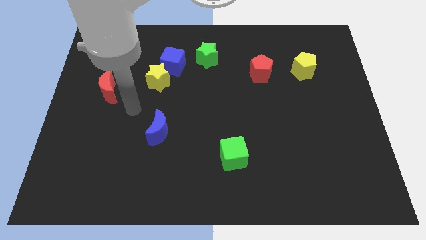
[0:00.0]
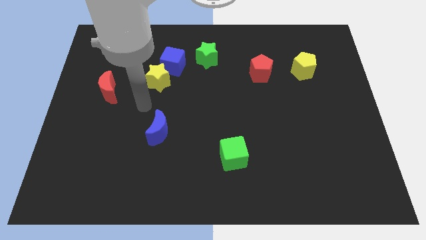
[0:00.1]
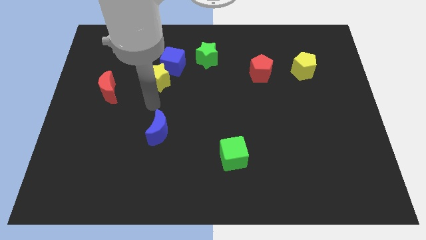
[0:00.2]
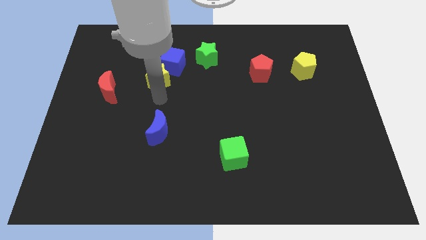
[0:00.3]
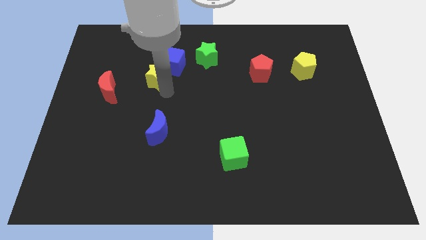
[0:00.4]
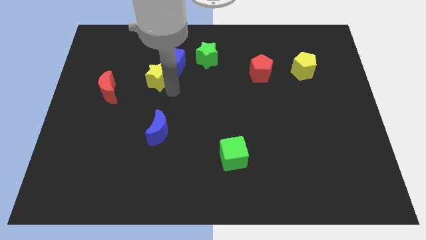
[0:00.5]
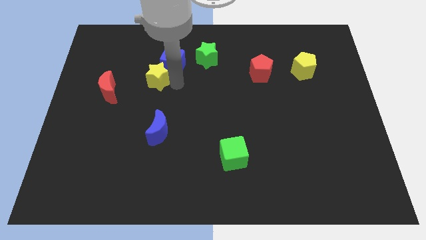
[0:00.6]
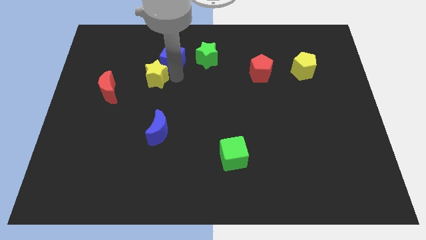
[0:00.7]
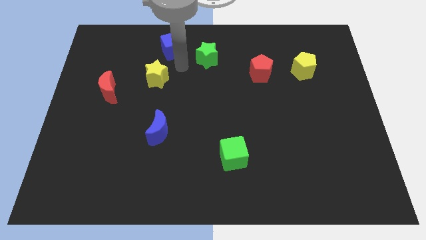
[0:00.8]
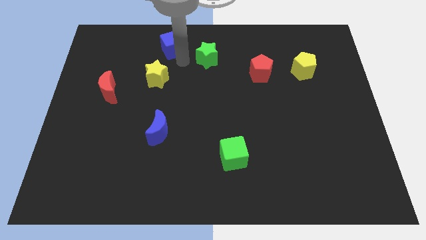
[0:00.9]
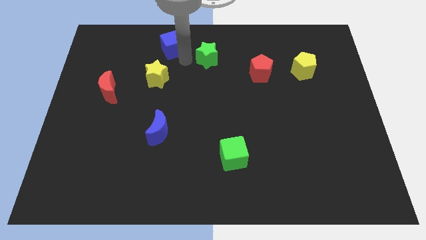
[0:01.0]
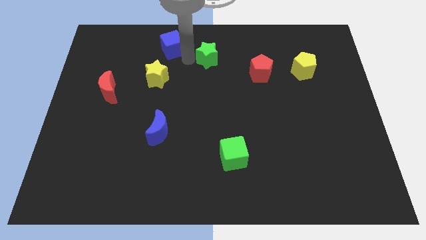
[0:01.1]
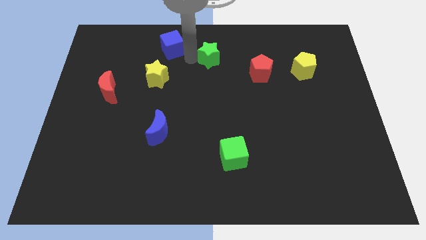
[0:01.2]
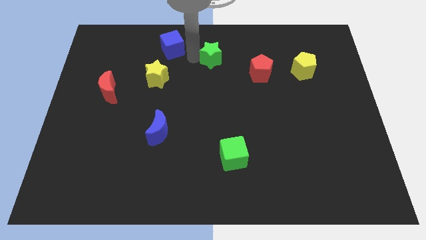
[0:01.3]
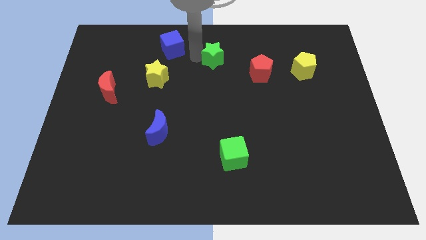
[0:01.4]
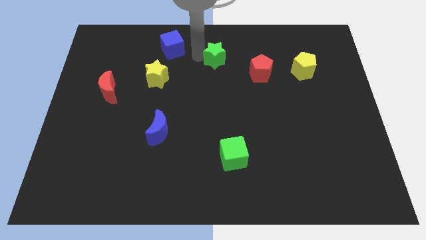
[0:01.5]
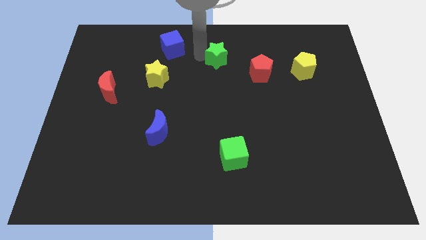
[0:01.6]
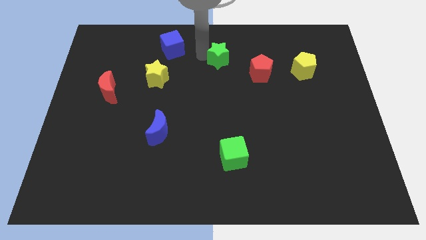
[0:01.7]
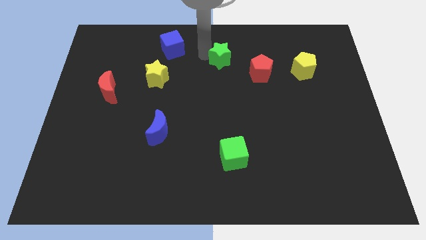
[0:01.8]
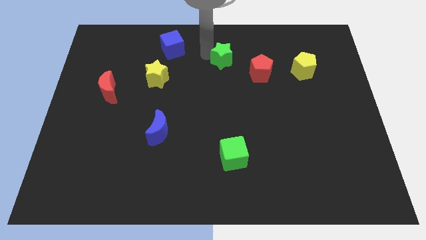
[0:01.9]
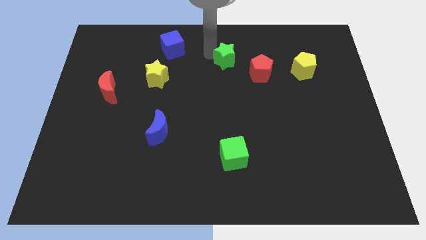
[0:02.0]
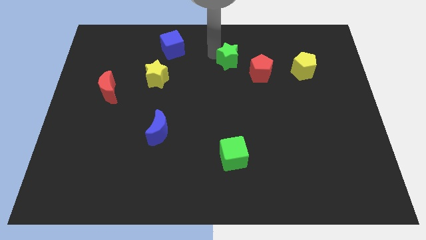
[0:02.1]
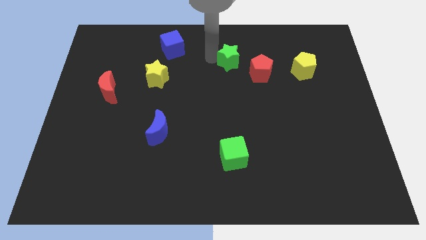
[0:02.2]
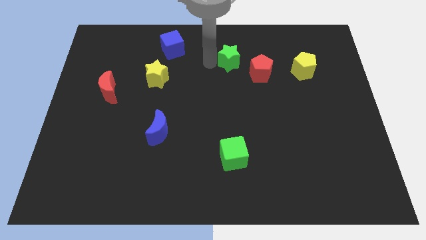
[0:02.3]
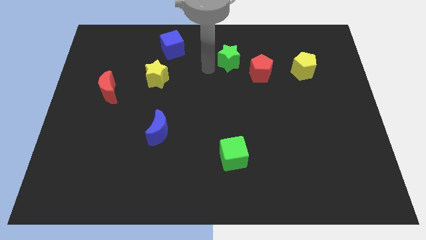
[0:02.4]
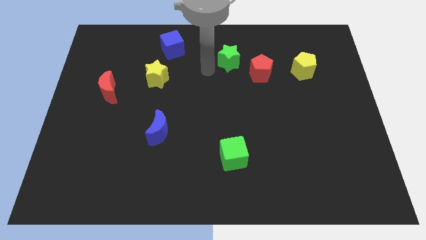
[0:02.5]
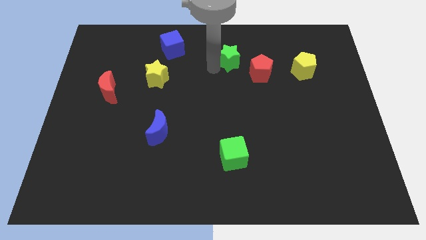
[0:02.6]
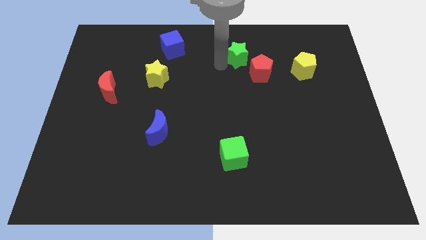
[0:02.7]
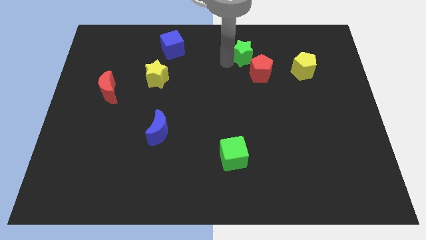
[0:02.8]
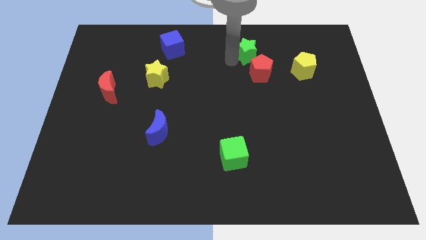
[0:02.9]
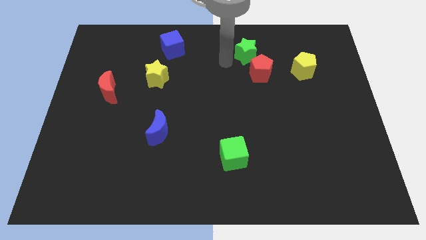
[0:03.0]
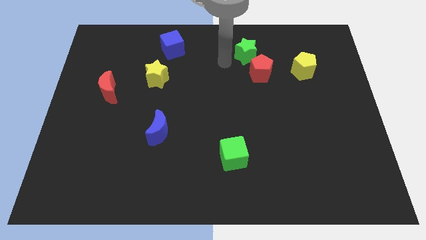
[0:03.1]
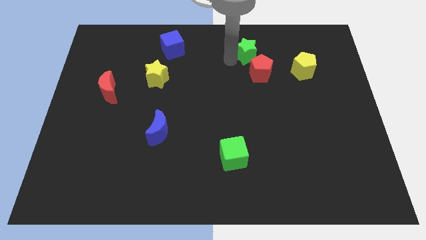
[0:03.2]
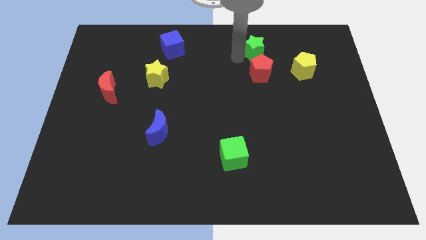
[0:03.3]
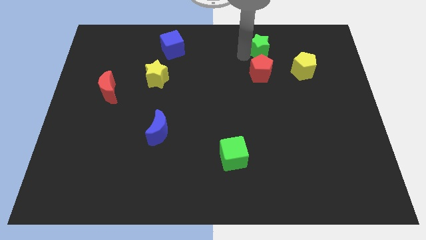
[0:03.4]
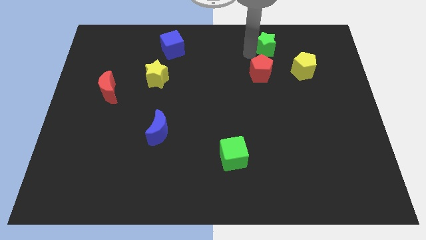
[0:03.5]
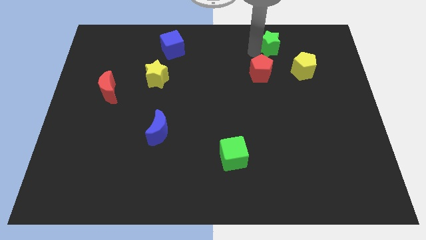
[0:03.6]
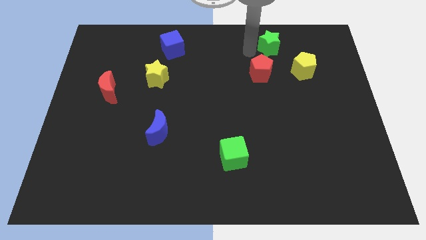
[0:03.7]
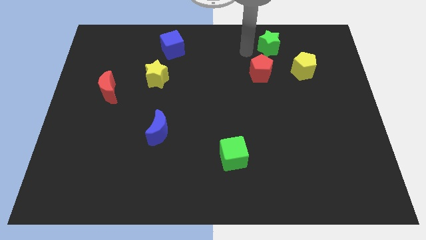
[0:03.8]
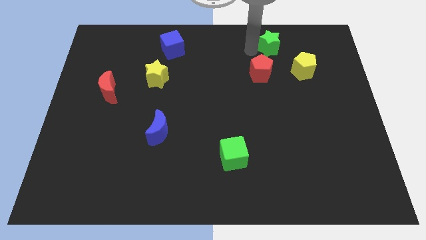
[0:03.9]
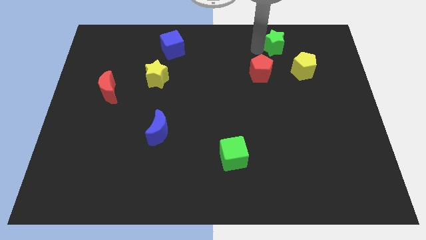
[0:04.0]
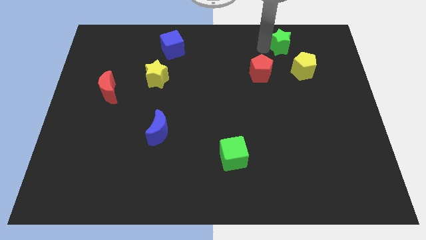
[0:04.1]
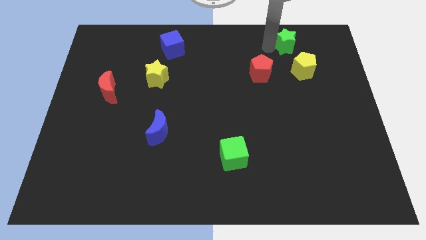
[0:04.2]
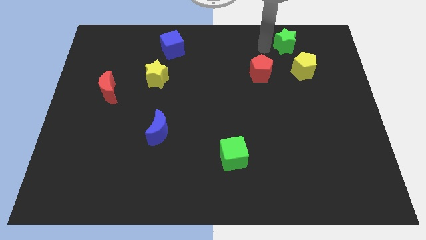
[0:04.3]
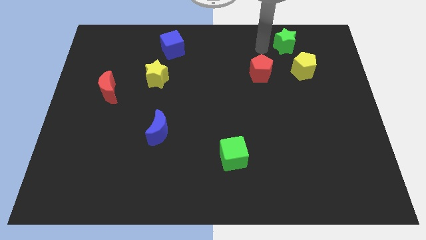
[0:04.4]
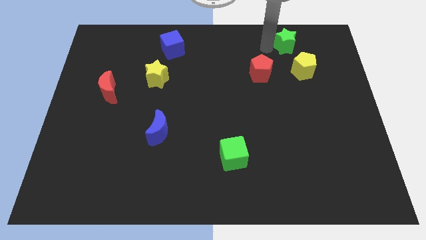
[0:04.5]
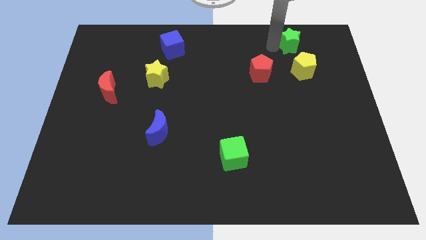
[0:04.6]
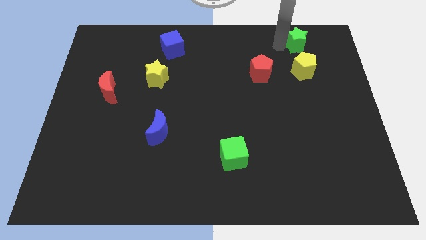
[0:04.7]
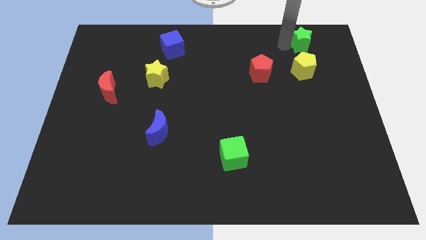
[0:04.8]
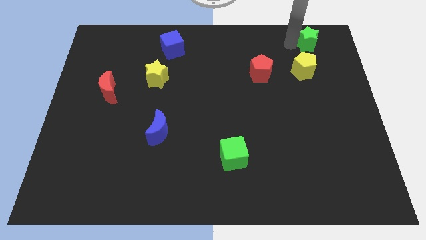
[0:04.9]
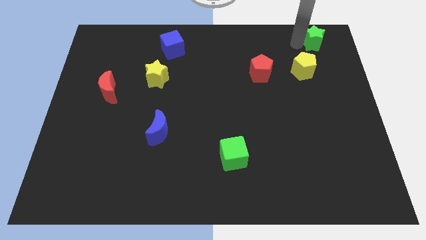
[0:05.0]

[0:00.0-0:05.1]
move the green star to the top right

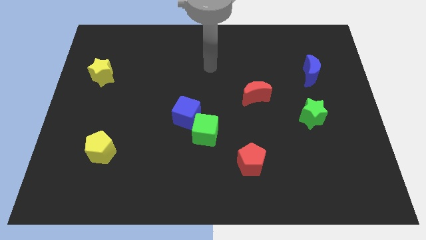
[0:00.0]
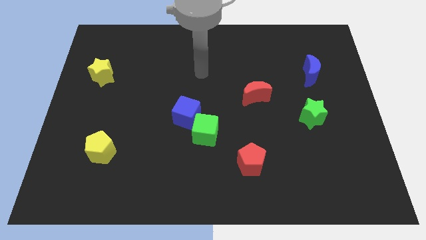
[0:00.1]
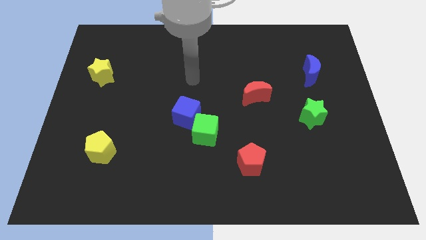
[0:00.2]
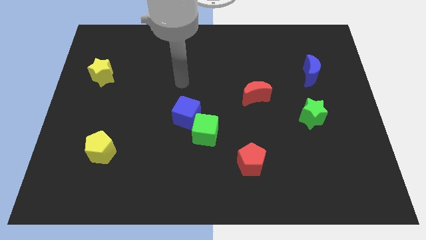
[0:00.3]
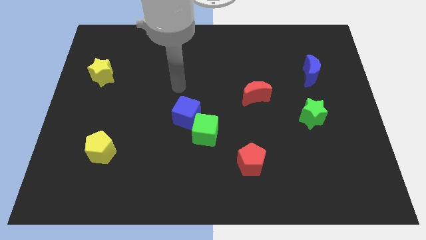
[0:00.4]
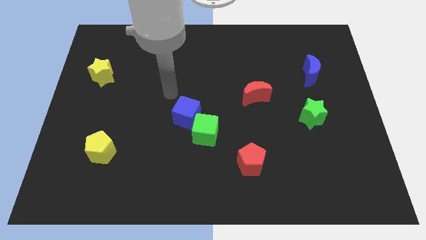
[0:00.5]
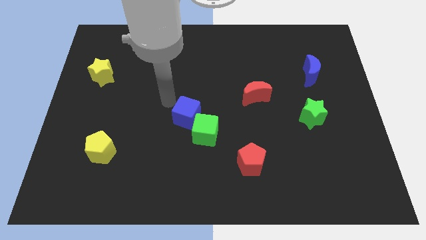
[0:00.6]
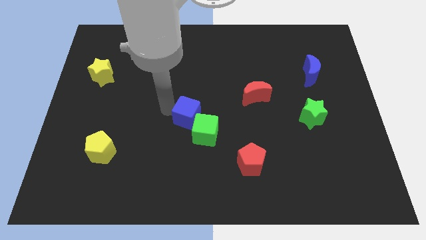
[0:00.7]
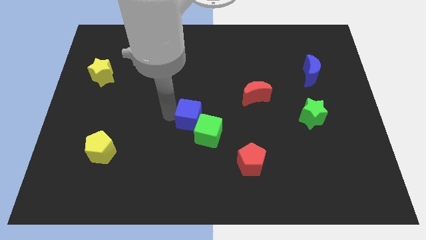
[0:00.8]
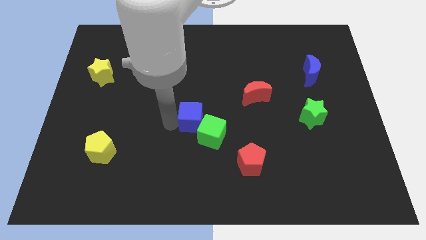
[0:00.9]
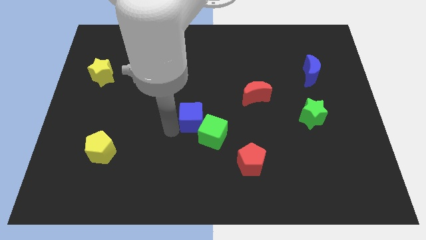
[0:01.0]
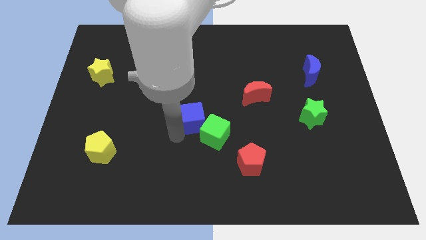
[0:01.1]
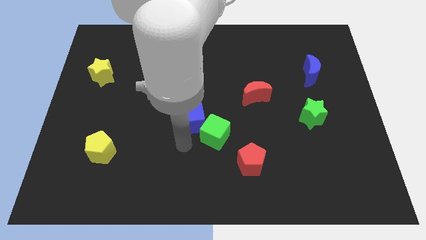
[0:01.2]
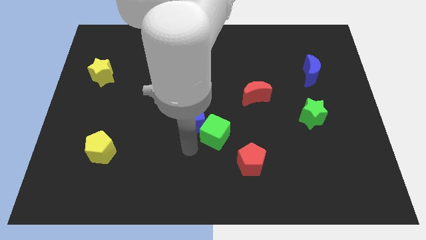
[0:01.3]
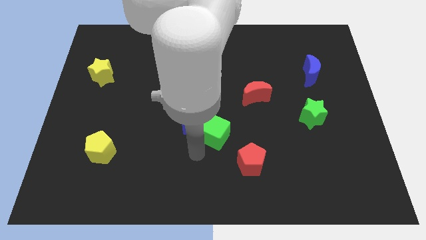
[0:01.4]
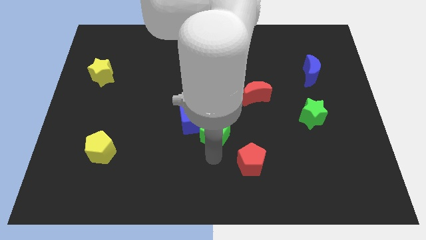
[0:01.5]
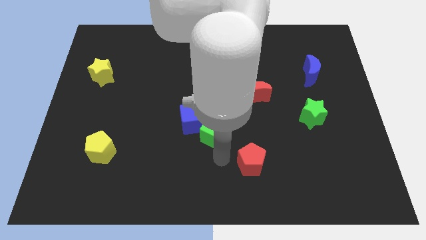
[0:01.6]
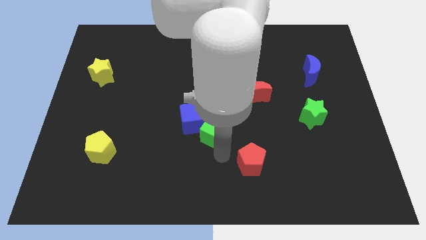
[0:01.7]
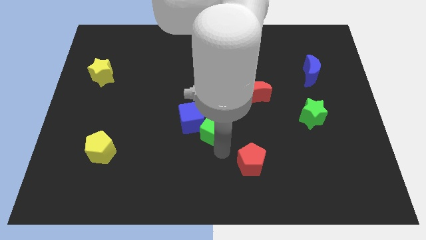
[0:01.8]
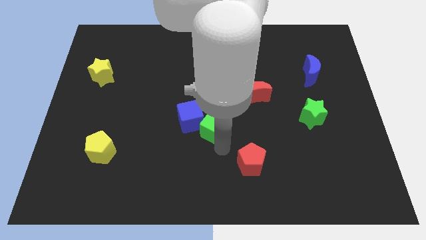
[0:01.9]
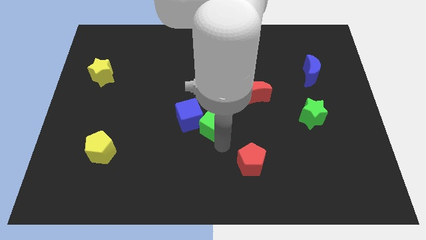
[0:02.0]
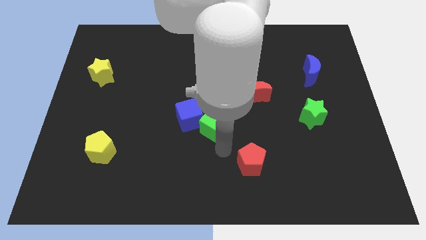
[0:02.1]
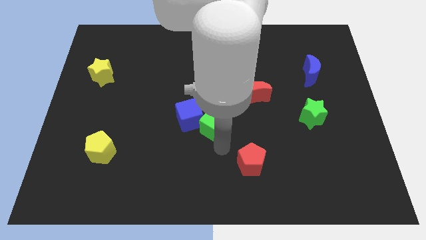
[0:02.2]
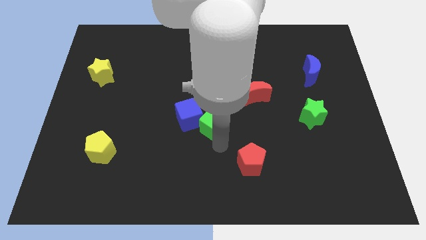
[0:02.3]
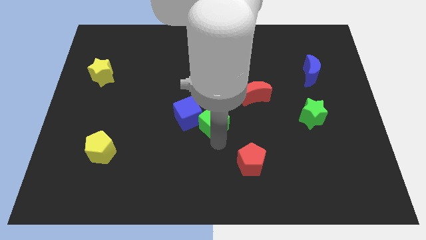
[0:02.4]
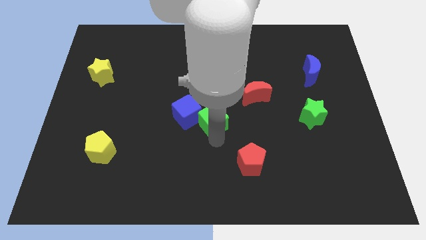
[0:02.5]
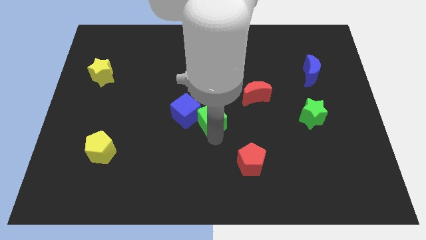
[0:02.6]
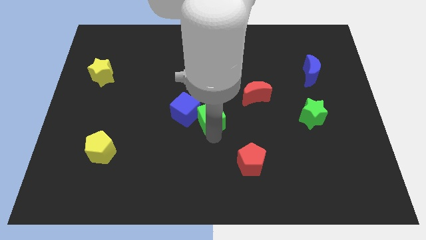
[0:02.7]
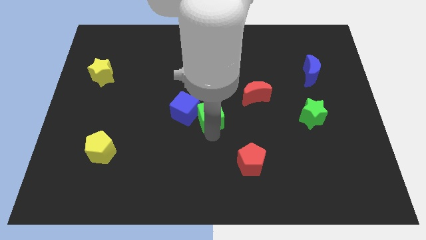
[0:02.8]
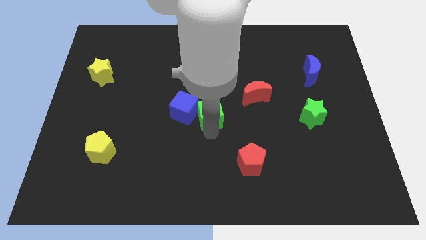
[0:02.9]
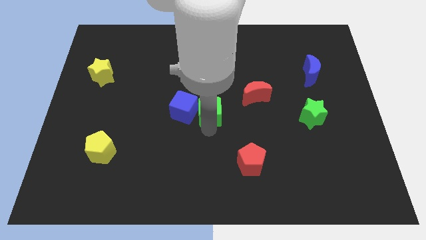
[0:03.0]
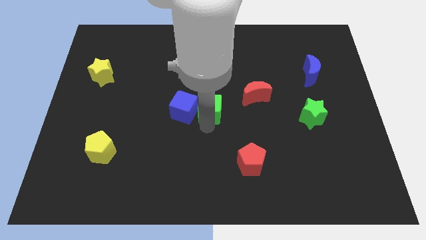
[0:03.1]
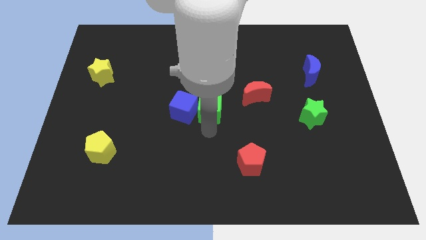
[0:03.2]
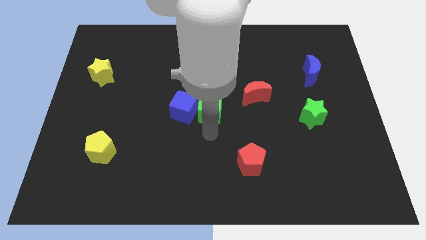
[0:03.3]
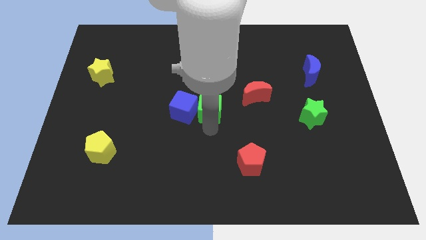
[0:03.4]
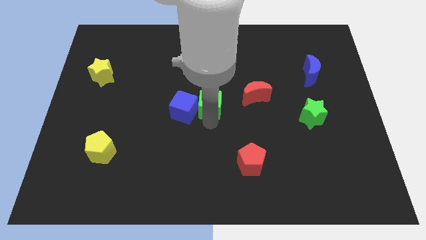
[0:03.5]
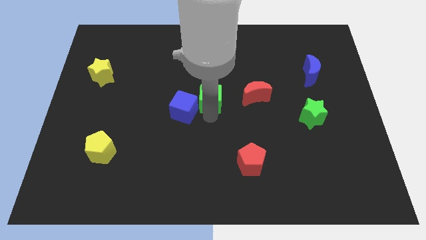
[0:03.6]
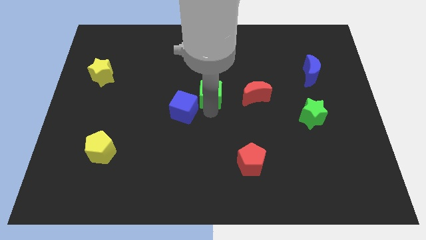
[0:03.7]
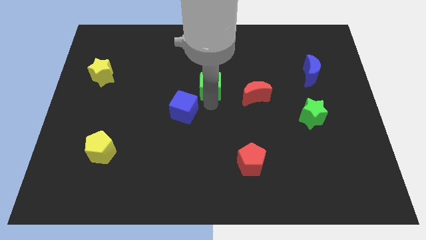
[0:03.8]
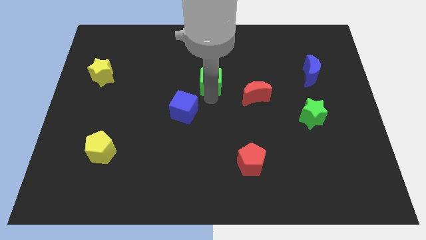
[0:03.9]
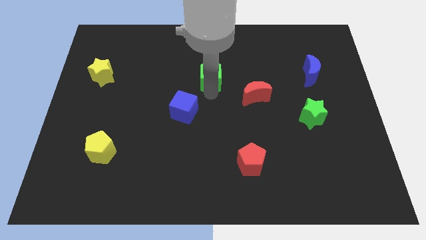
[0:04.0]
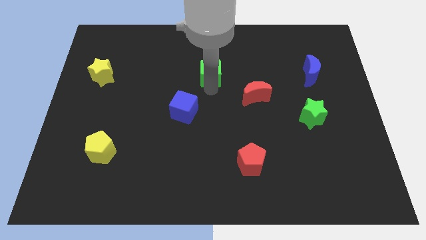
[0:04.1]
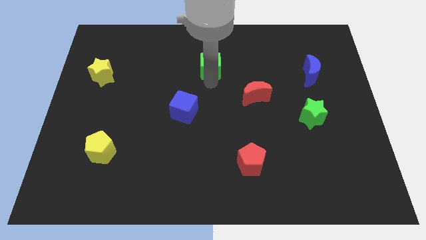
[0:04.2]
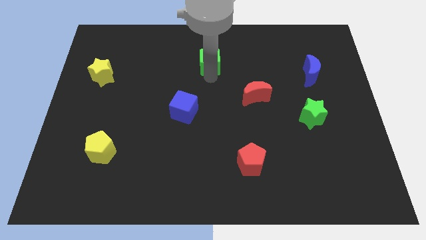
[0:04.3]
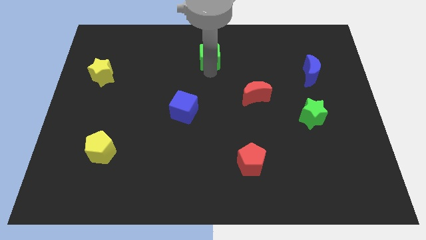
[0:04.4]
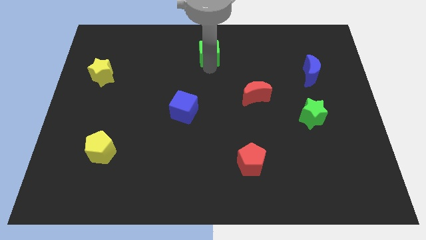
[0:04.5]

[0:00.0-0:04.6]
slide the green cube to the towards your base
